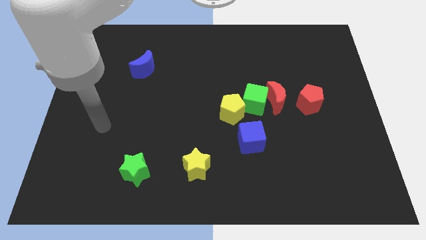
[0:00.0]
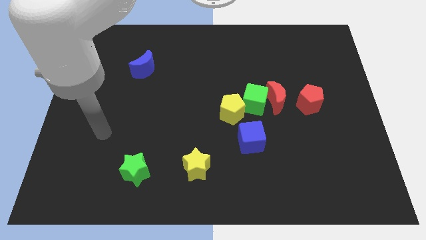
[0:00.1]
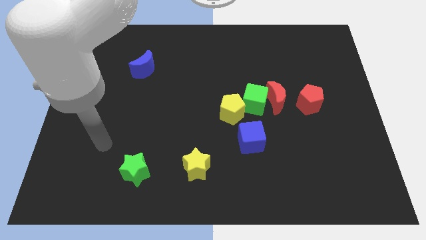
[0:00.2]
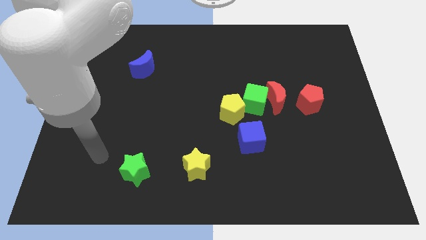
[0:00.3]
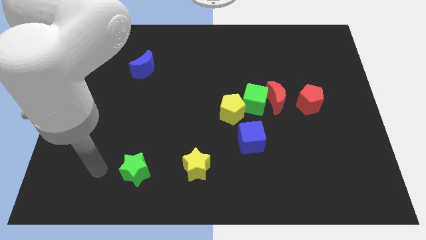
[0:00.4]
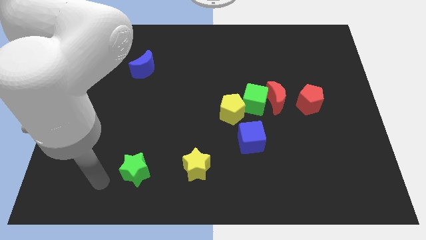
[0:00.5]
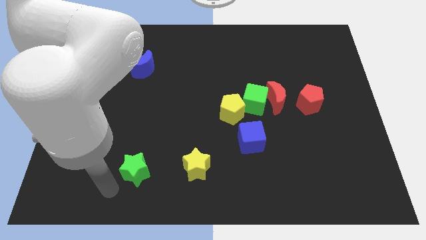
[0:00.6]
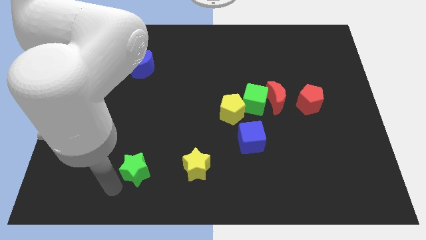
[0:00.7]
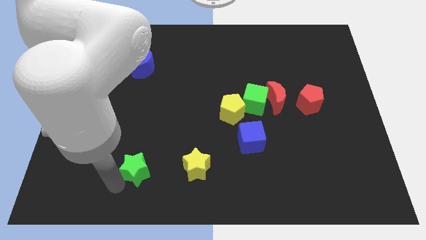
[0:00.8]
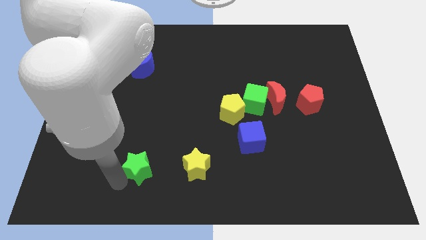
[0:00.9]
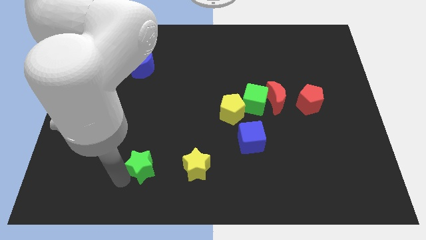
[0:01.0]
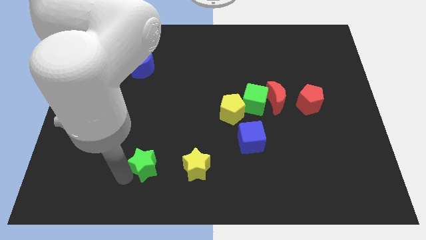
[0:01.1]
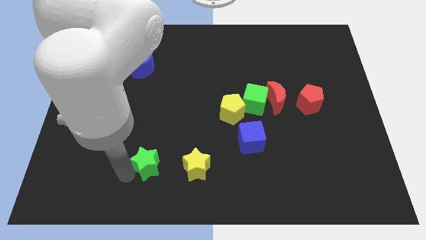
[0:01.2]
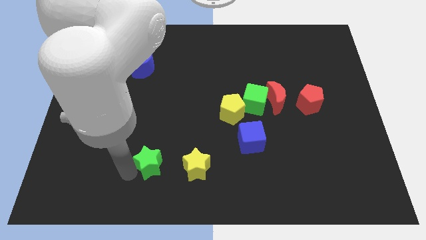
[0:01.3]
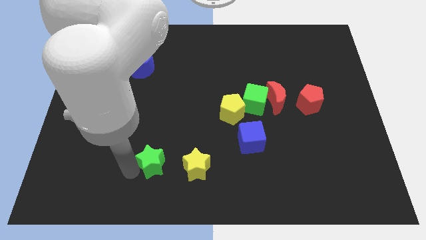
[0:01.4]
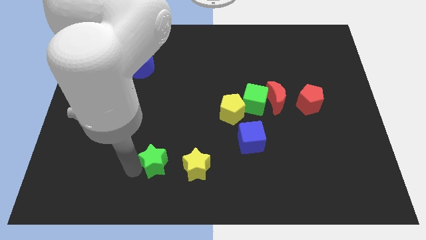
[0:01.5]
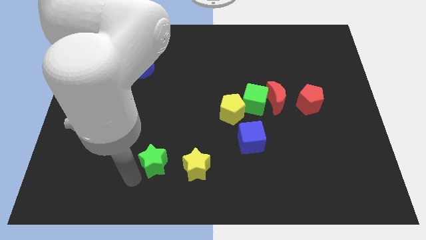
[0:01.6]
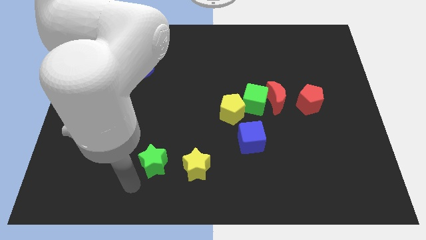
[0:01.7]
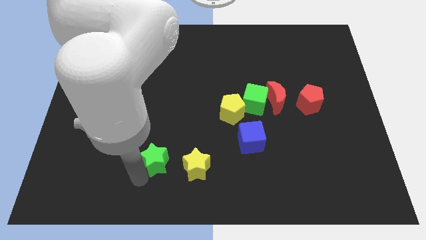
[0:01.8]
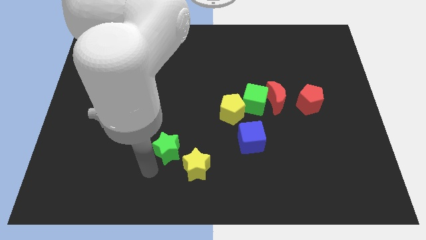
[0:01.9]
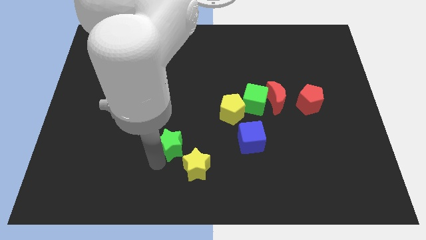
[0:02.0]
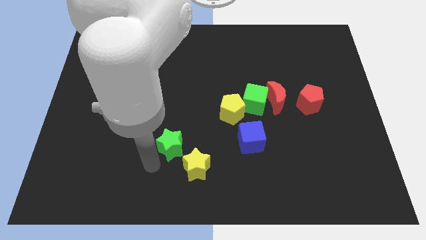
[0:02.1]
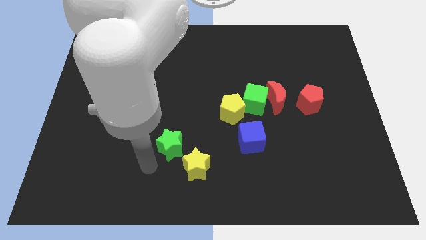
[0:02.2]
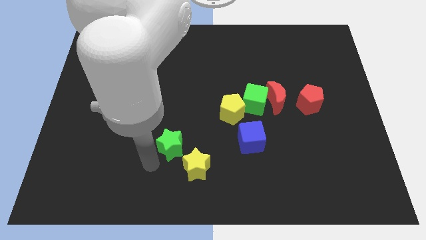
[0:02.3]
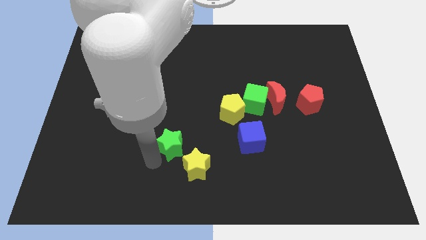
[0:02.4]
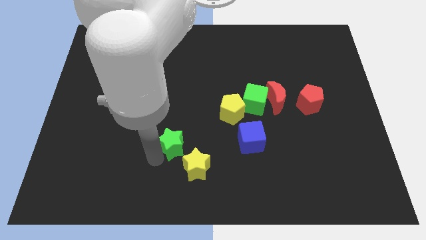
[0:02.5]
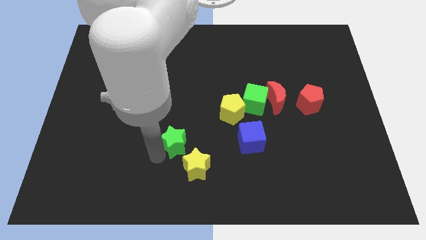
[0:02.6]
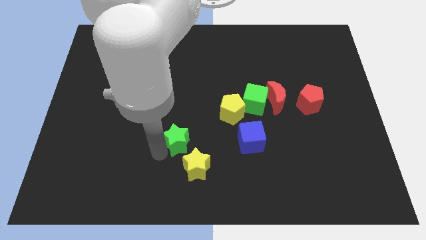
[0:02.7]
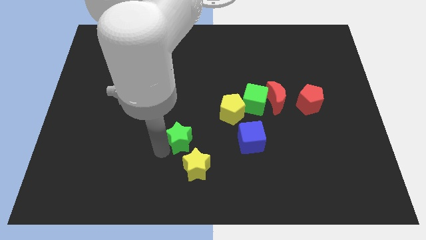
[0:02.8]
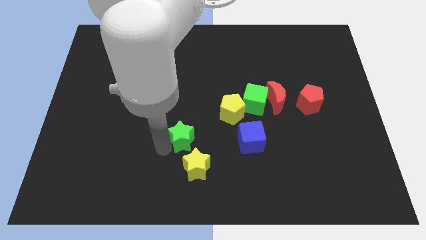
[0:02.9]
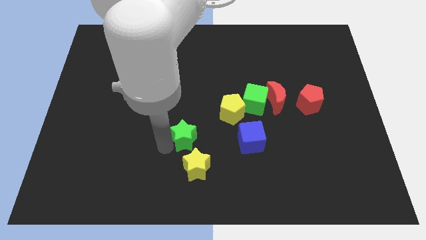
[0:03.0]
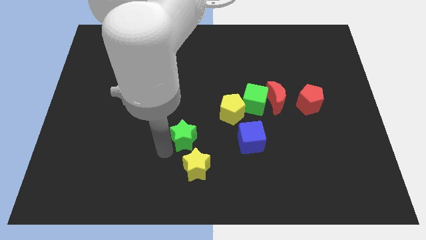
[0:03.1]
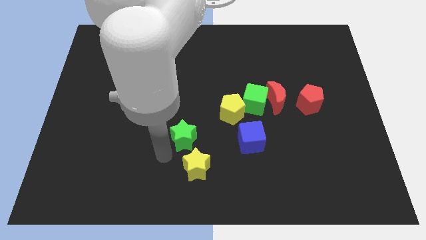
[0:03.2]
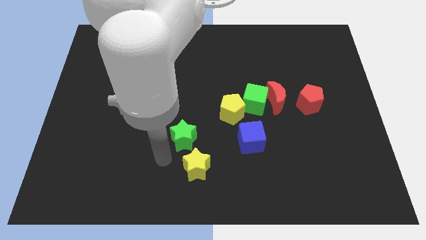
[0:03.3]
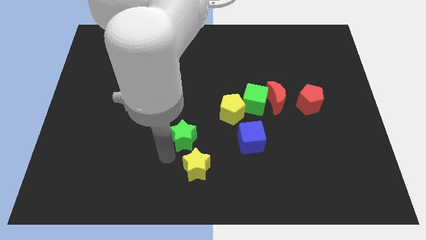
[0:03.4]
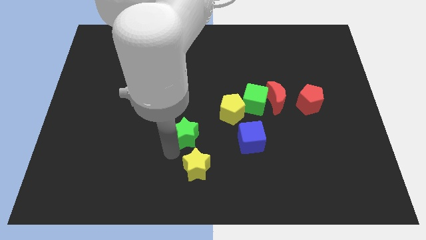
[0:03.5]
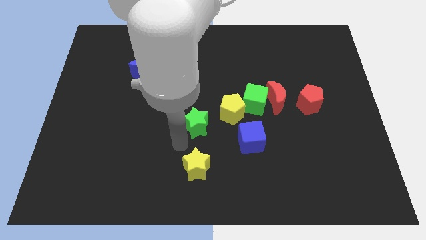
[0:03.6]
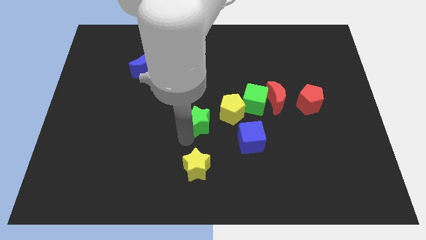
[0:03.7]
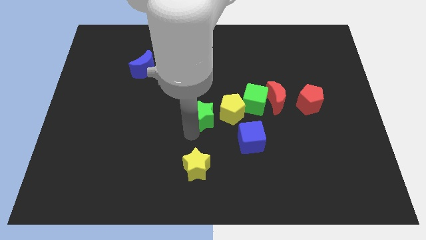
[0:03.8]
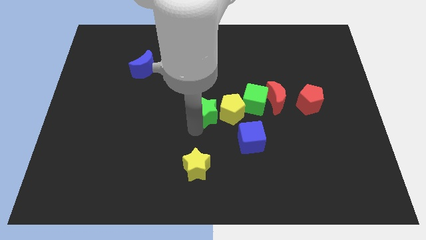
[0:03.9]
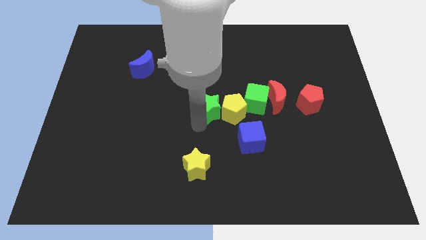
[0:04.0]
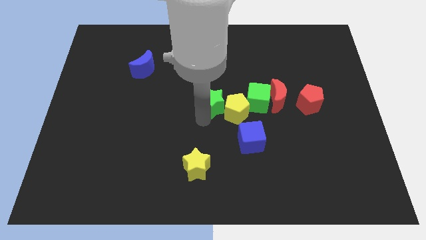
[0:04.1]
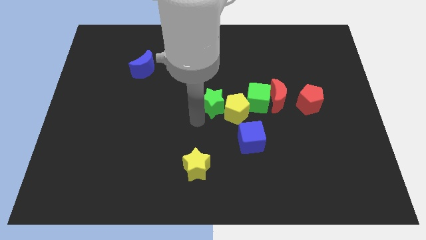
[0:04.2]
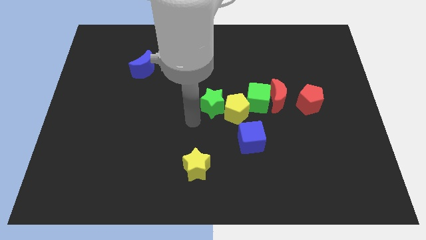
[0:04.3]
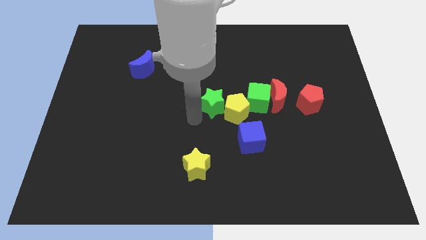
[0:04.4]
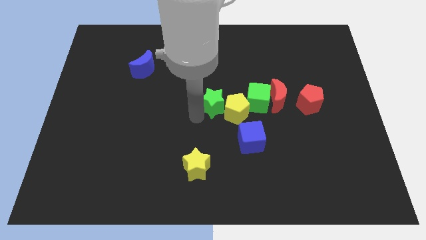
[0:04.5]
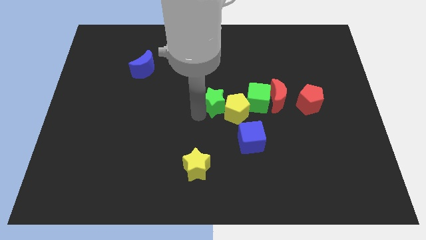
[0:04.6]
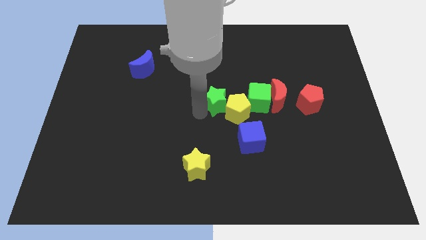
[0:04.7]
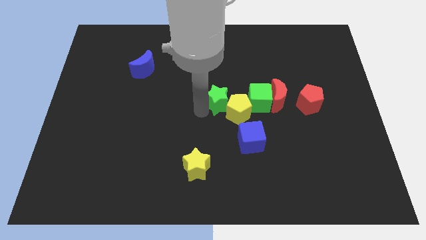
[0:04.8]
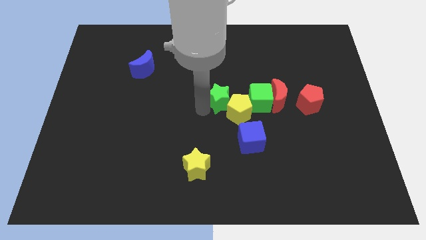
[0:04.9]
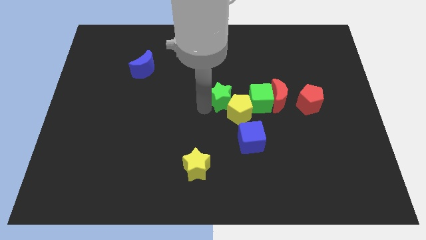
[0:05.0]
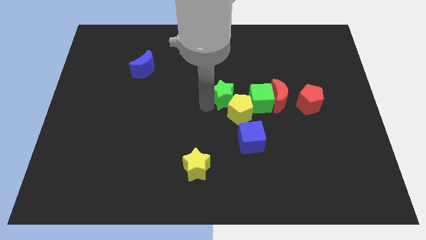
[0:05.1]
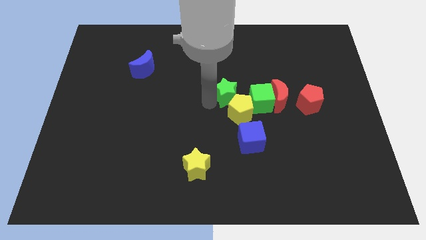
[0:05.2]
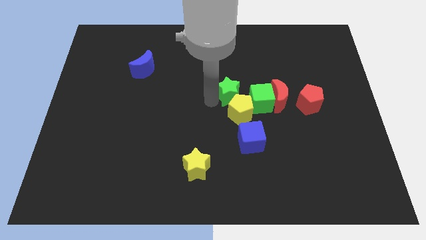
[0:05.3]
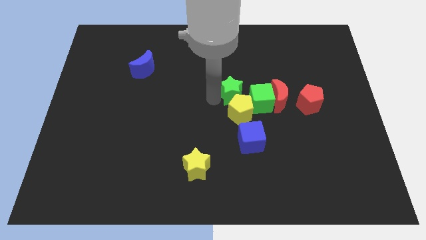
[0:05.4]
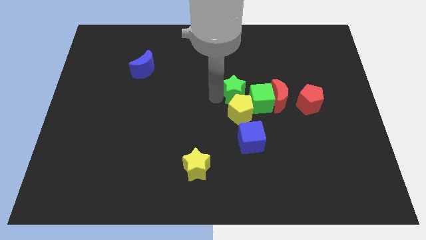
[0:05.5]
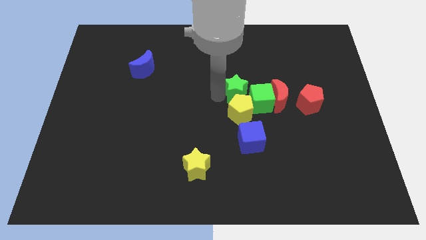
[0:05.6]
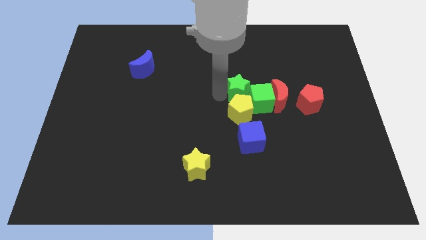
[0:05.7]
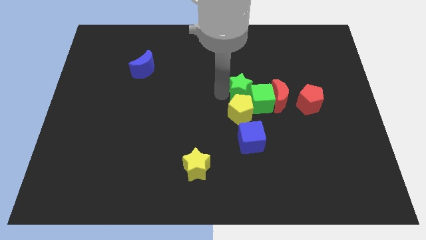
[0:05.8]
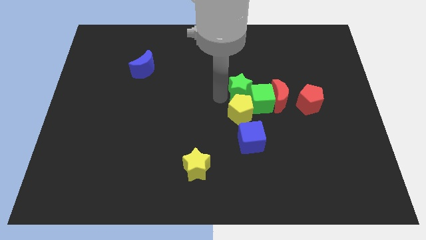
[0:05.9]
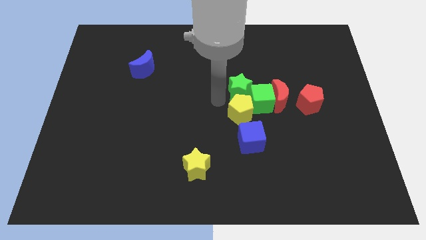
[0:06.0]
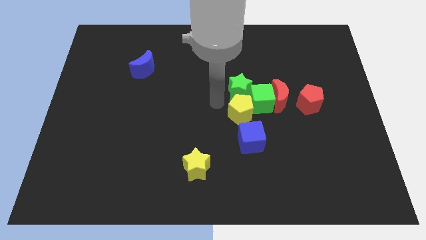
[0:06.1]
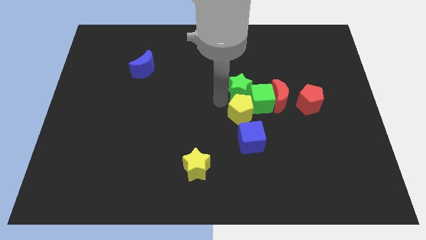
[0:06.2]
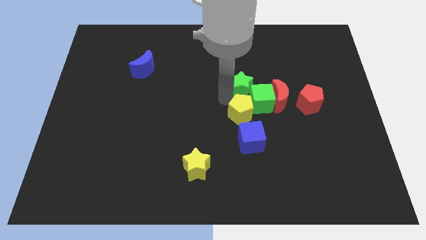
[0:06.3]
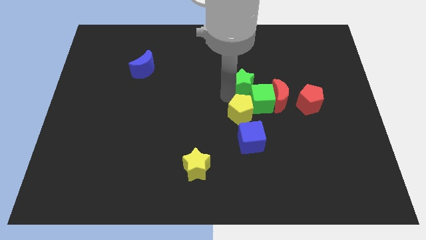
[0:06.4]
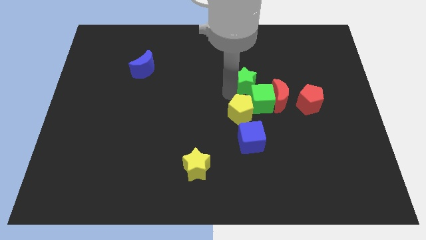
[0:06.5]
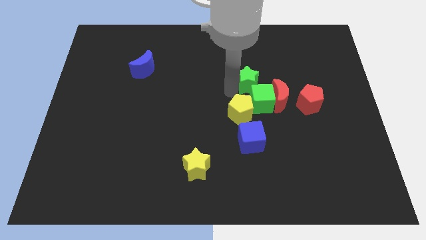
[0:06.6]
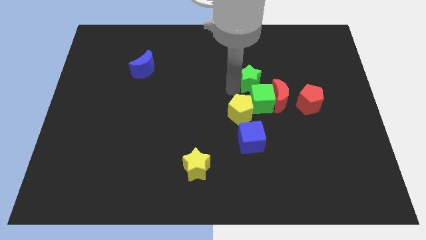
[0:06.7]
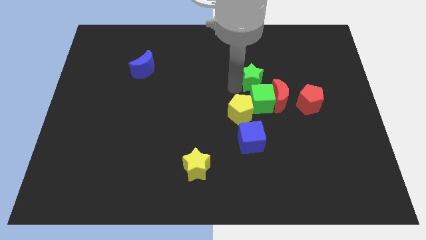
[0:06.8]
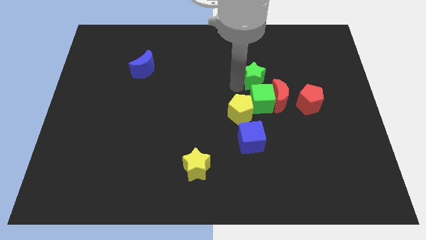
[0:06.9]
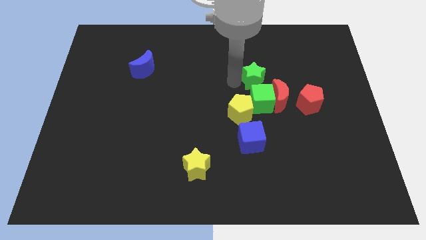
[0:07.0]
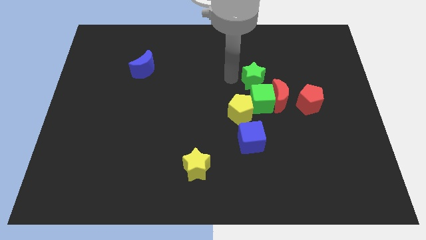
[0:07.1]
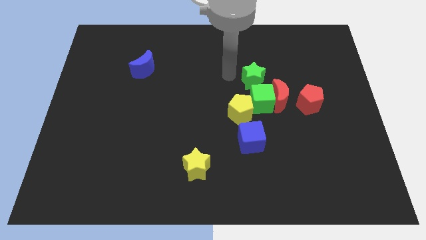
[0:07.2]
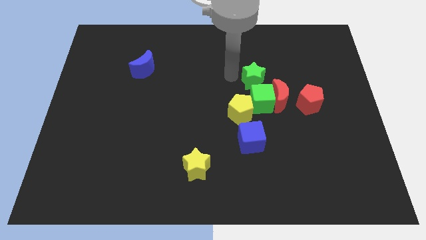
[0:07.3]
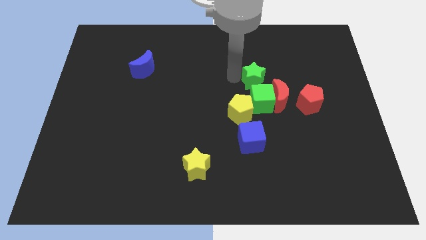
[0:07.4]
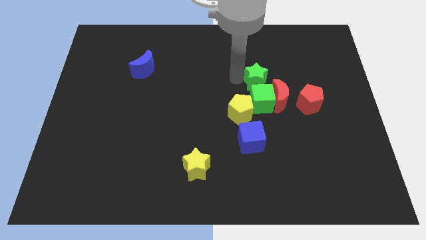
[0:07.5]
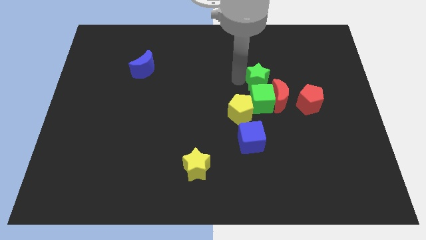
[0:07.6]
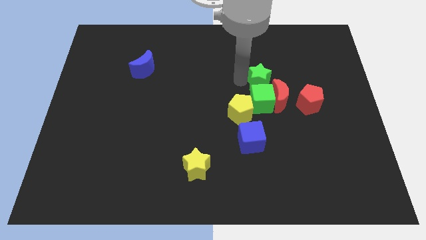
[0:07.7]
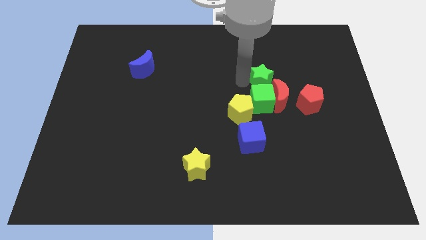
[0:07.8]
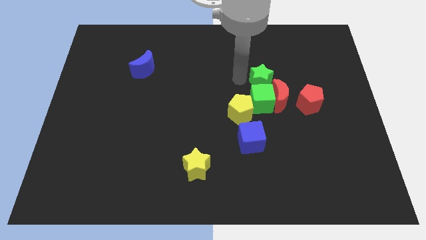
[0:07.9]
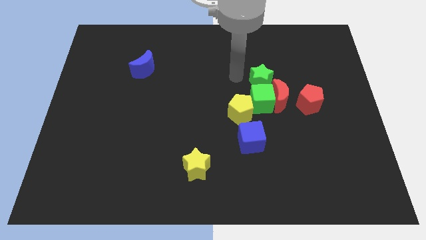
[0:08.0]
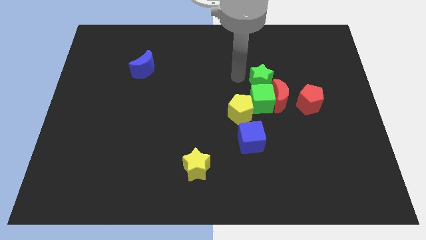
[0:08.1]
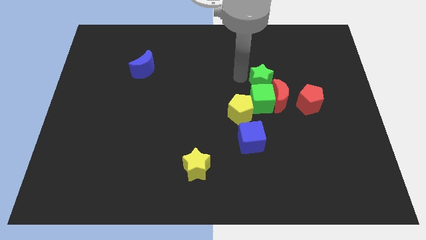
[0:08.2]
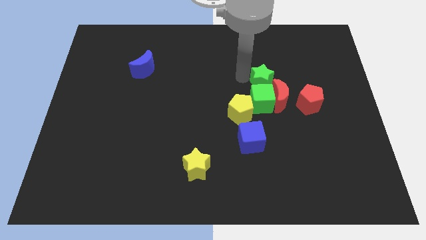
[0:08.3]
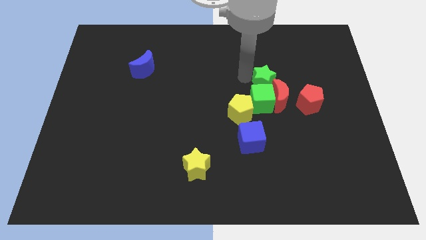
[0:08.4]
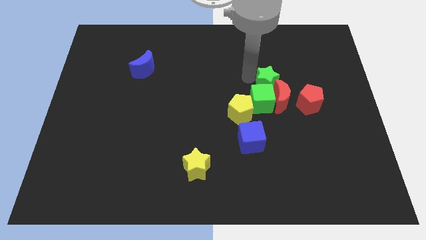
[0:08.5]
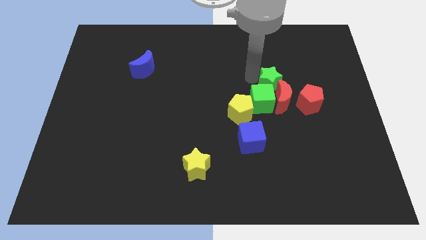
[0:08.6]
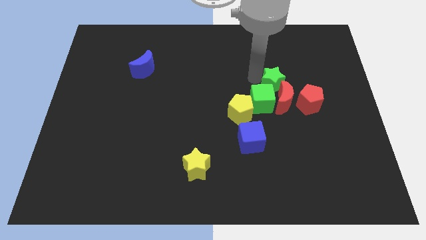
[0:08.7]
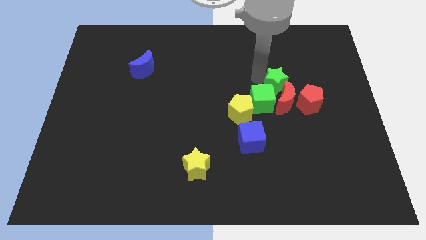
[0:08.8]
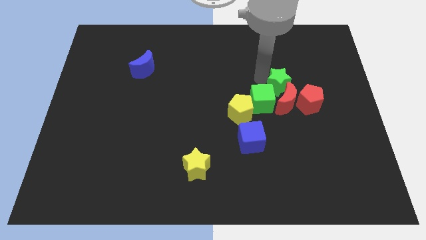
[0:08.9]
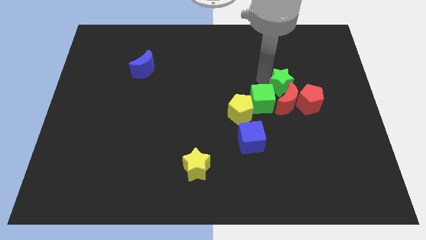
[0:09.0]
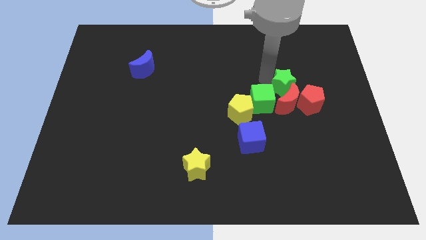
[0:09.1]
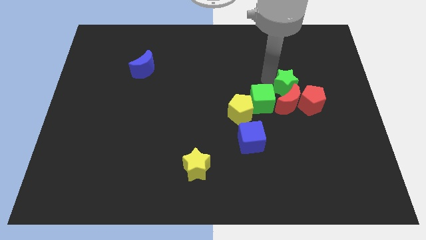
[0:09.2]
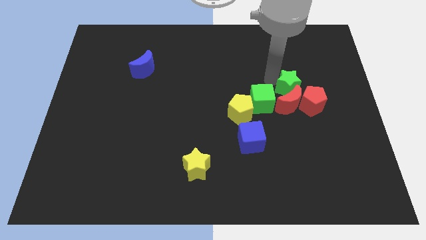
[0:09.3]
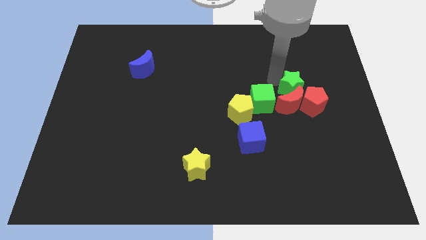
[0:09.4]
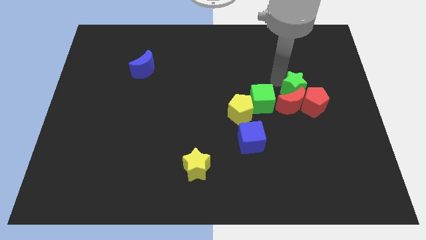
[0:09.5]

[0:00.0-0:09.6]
slide the green star close to the red pentagon
